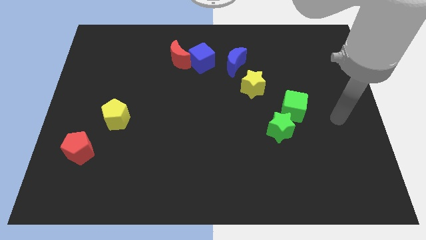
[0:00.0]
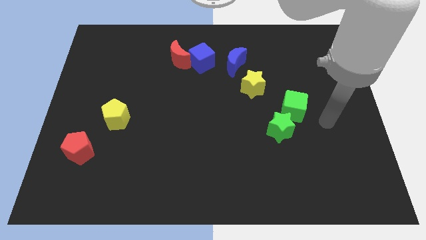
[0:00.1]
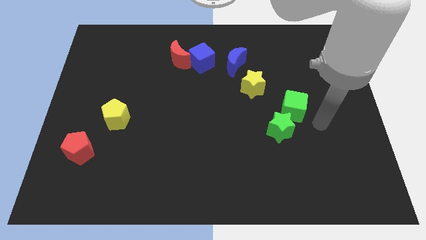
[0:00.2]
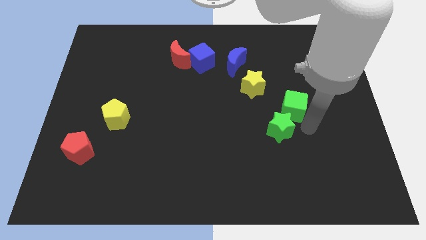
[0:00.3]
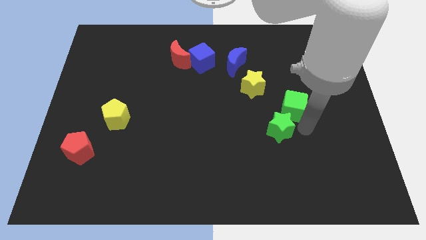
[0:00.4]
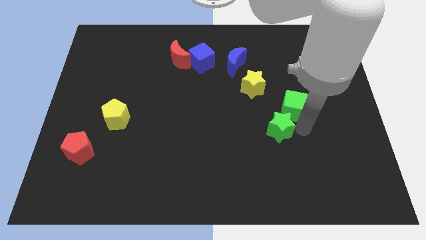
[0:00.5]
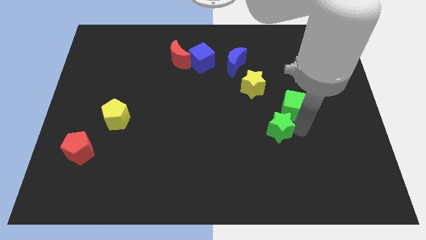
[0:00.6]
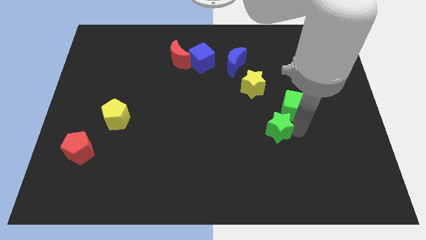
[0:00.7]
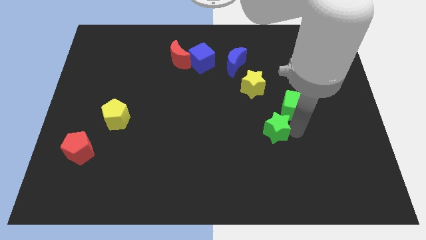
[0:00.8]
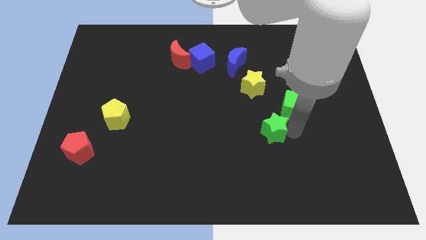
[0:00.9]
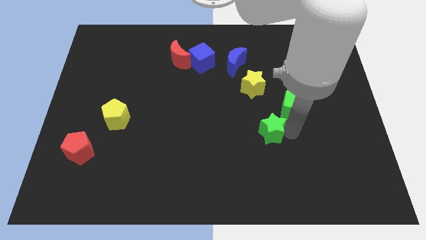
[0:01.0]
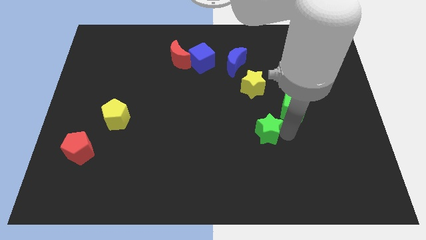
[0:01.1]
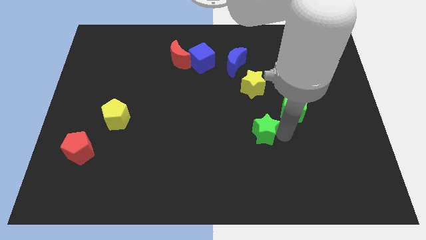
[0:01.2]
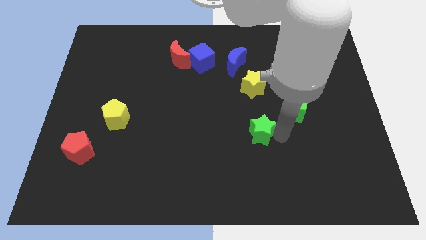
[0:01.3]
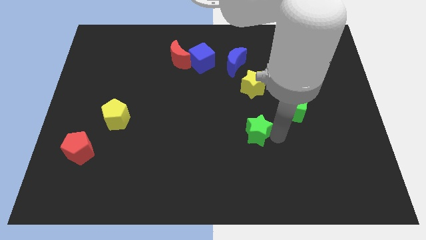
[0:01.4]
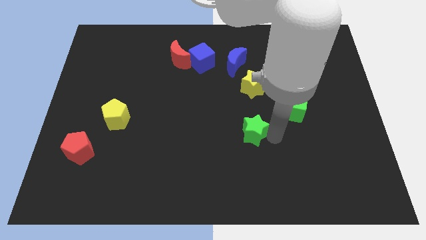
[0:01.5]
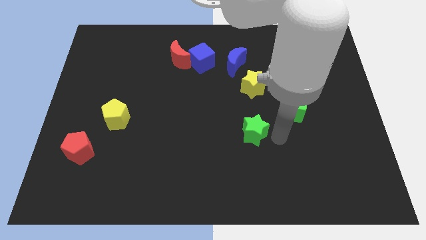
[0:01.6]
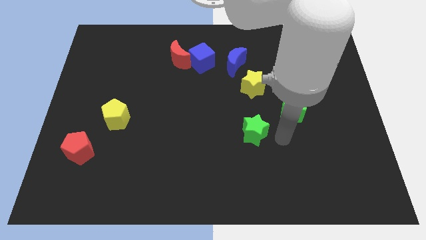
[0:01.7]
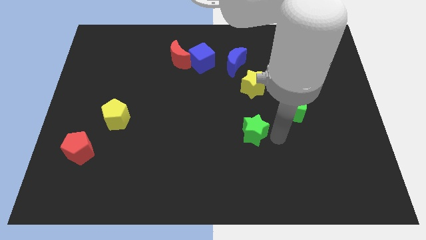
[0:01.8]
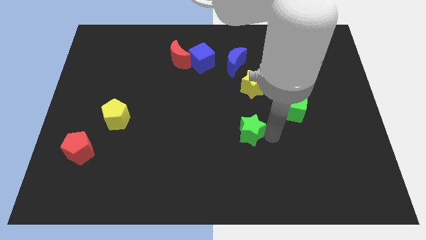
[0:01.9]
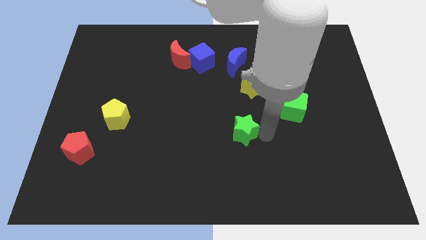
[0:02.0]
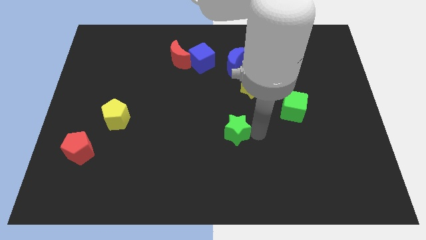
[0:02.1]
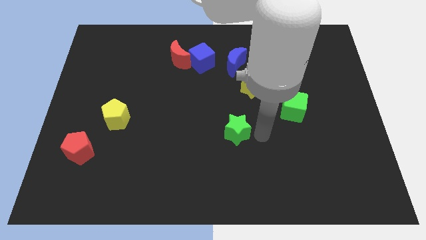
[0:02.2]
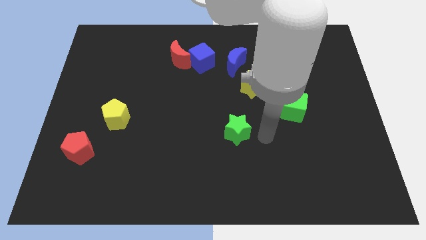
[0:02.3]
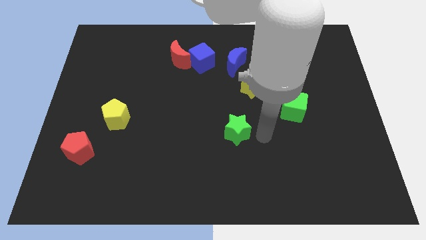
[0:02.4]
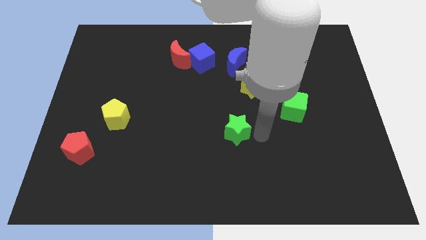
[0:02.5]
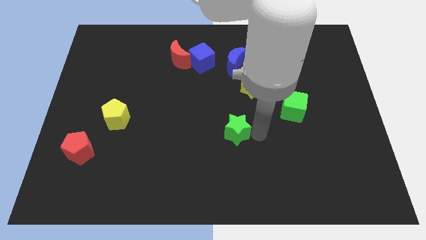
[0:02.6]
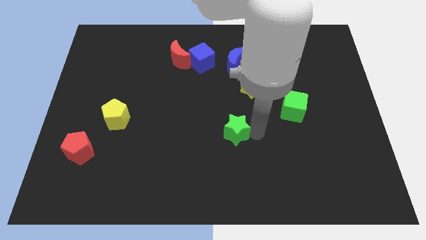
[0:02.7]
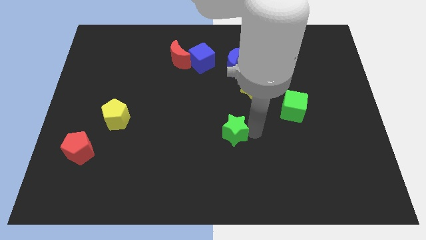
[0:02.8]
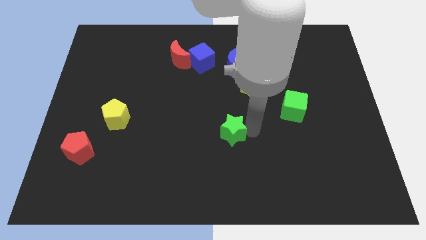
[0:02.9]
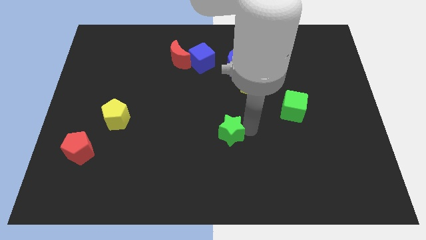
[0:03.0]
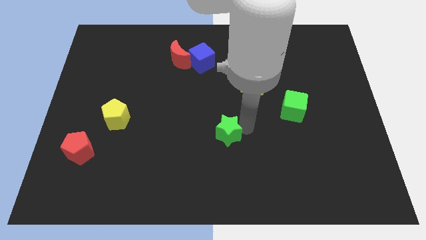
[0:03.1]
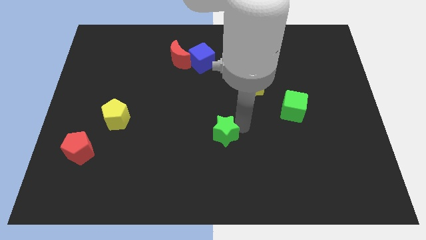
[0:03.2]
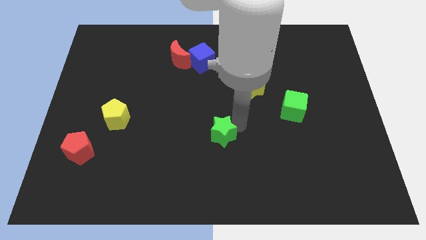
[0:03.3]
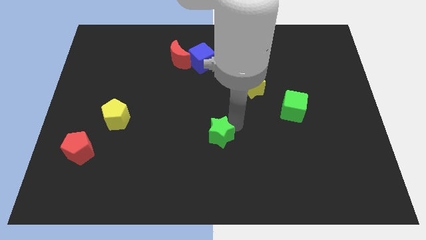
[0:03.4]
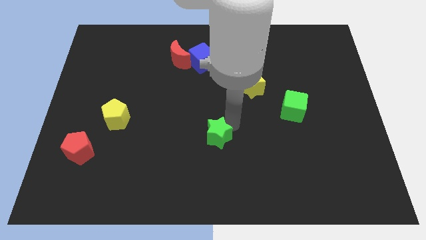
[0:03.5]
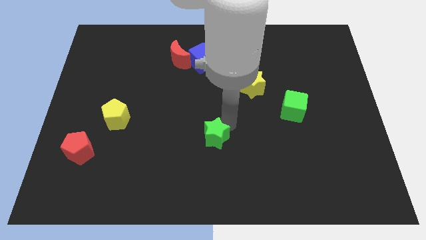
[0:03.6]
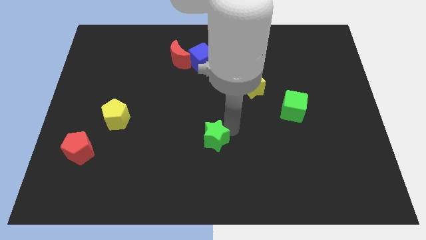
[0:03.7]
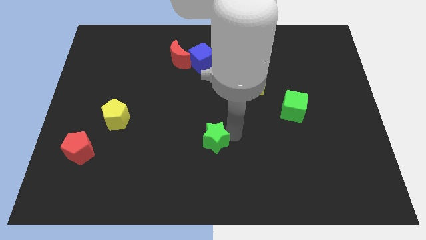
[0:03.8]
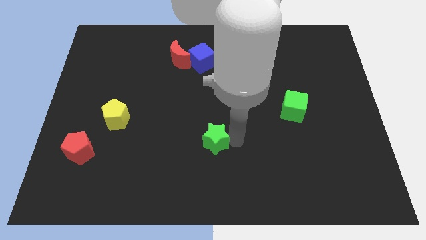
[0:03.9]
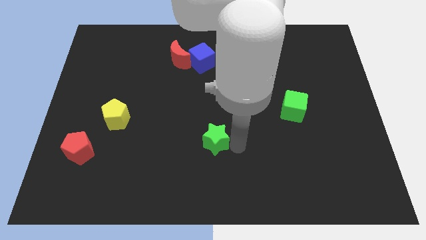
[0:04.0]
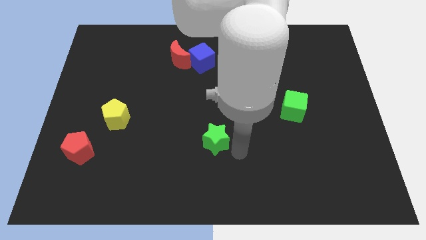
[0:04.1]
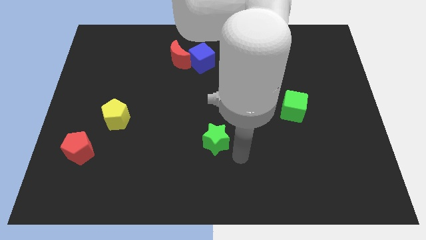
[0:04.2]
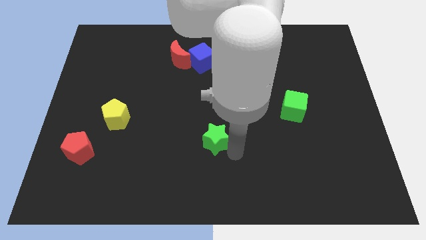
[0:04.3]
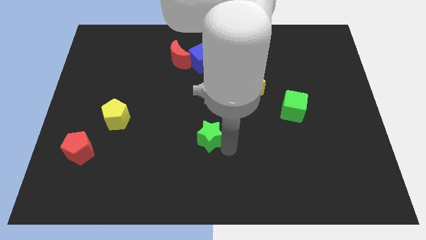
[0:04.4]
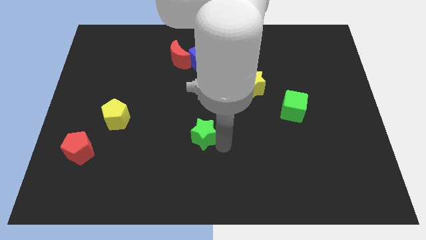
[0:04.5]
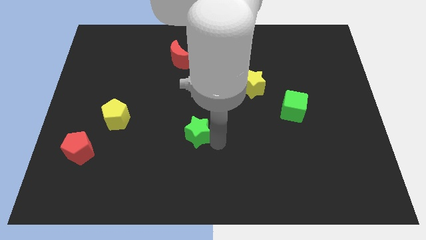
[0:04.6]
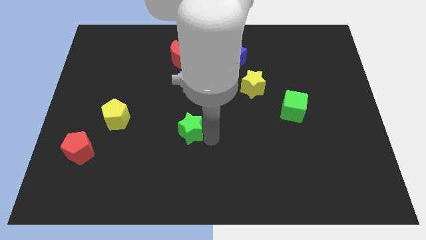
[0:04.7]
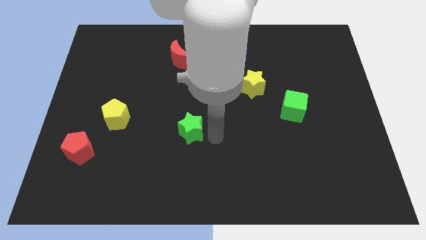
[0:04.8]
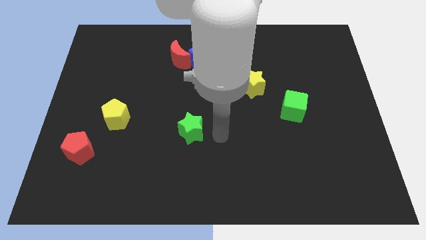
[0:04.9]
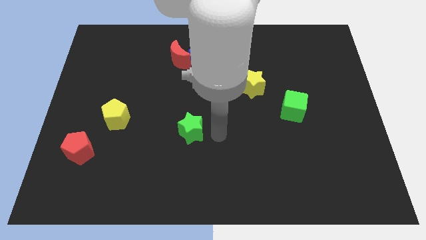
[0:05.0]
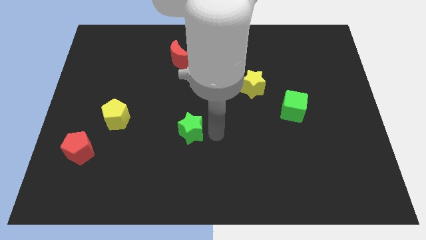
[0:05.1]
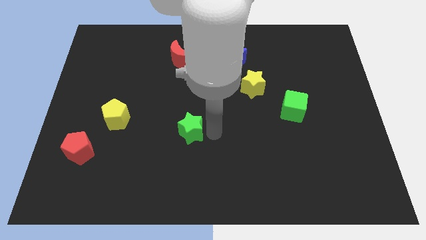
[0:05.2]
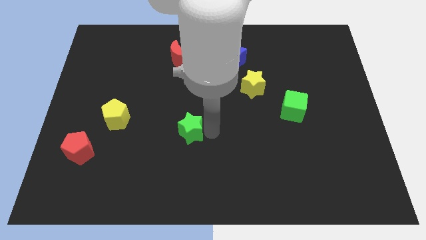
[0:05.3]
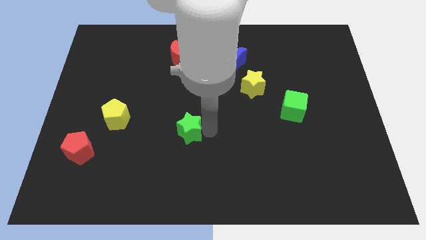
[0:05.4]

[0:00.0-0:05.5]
move the green star left

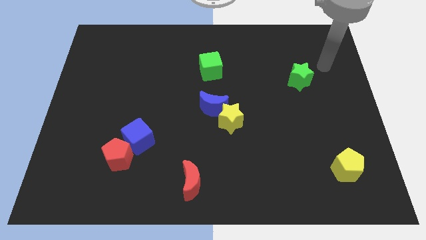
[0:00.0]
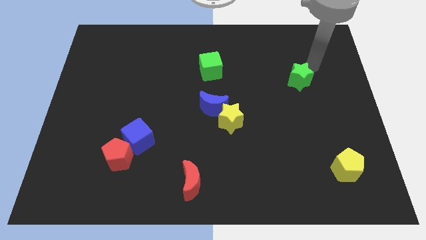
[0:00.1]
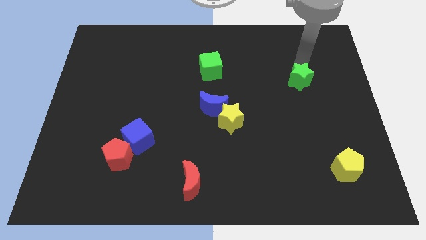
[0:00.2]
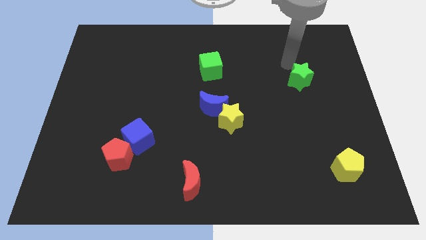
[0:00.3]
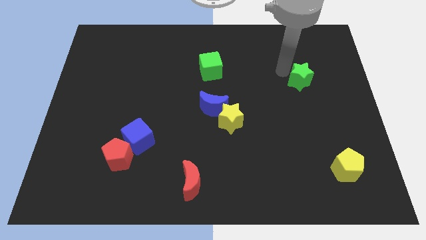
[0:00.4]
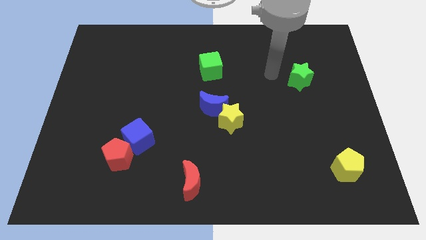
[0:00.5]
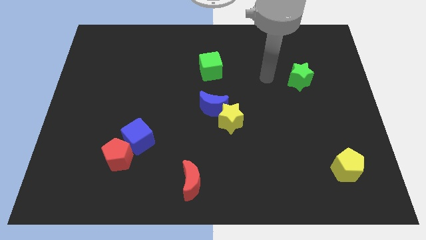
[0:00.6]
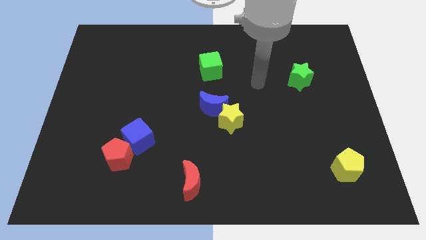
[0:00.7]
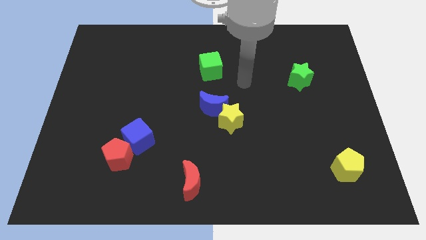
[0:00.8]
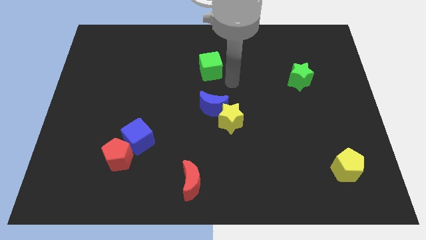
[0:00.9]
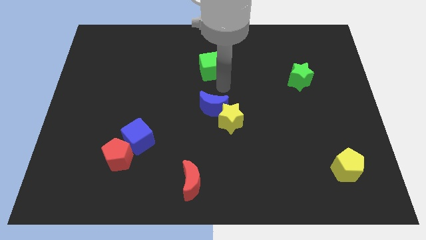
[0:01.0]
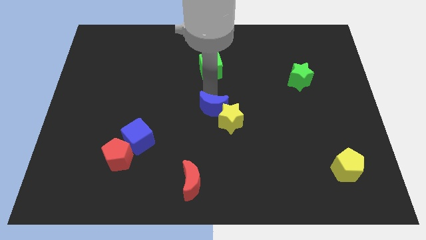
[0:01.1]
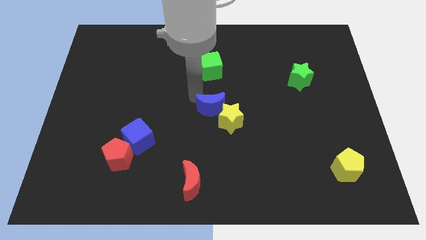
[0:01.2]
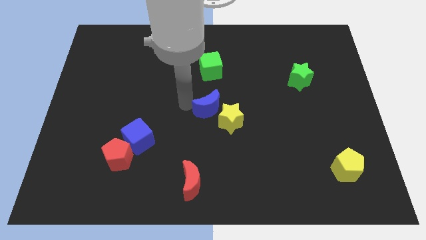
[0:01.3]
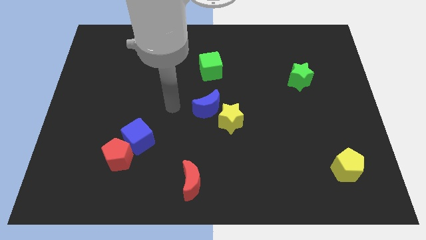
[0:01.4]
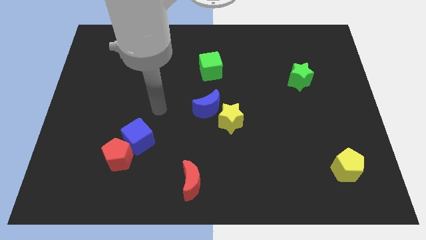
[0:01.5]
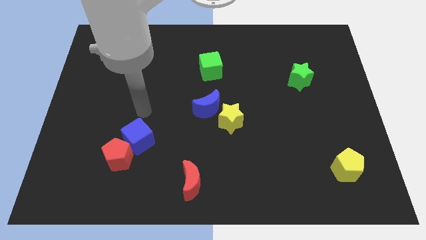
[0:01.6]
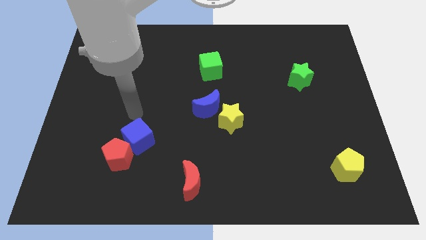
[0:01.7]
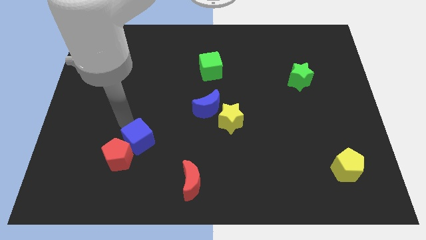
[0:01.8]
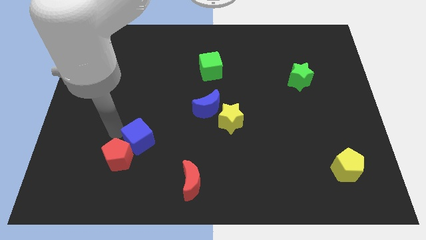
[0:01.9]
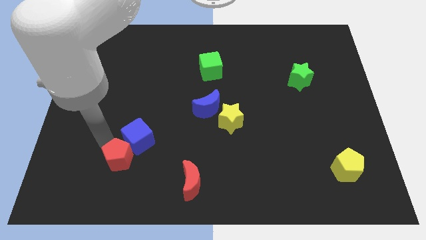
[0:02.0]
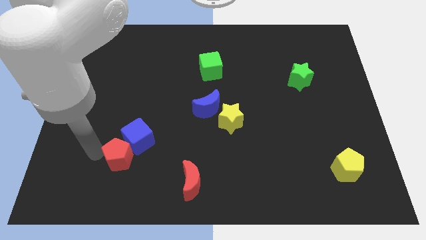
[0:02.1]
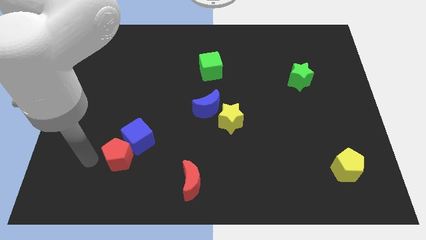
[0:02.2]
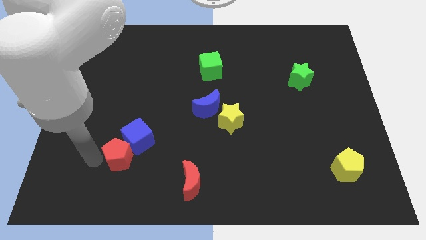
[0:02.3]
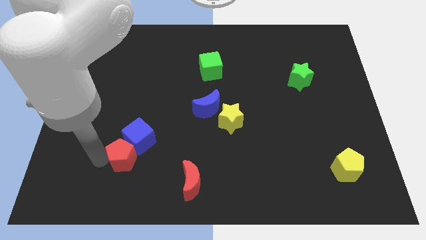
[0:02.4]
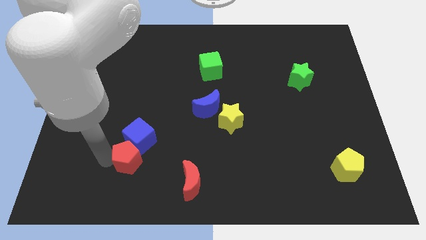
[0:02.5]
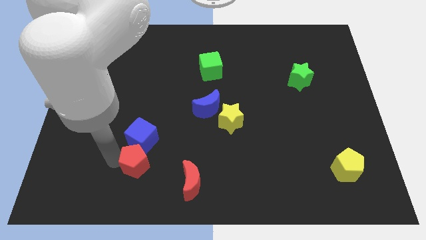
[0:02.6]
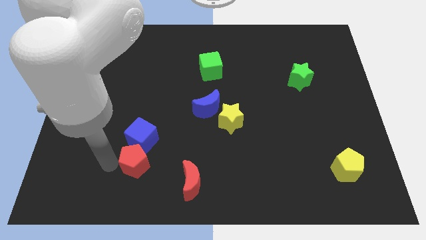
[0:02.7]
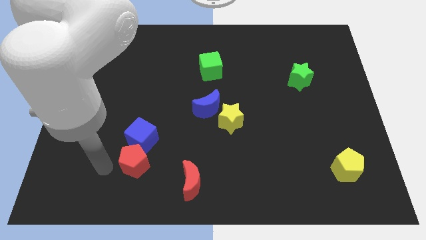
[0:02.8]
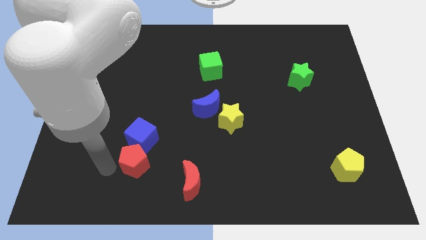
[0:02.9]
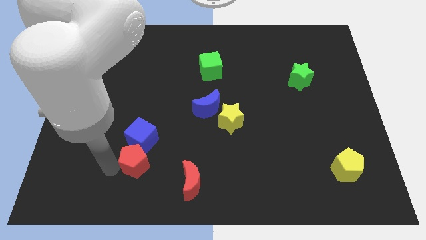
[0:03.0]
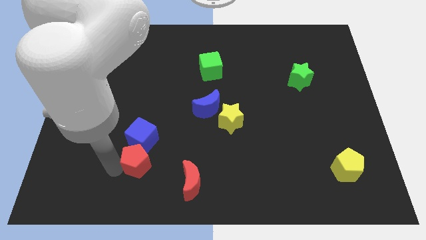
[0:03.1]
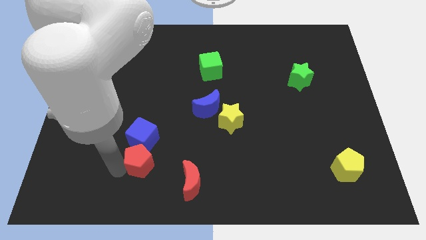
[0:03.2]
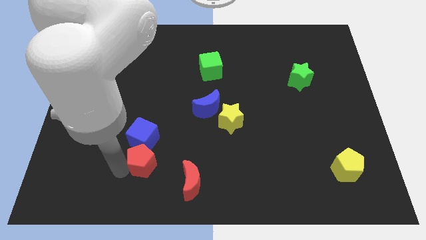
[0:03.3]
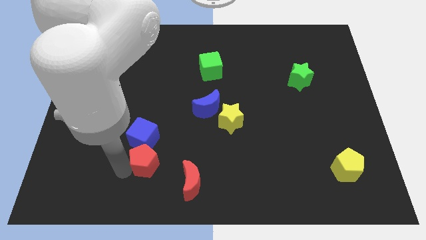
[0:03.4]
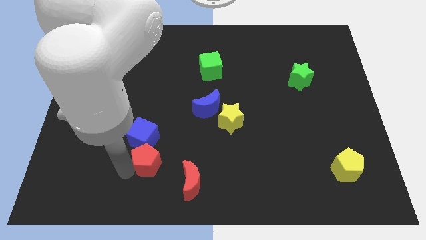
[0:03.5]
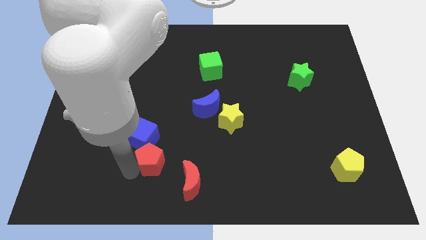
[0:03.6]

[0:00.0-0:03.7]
move the red pentagon to the right a bit
